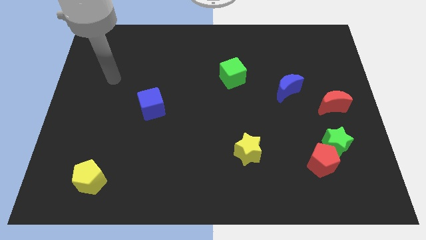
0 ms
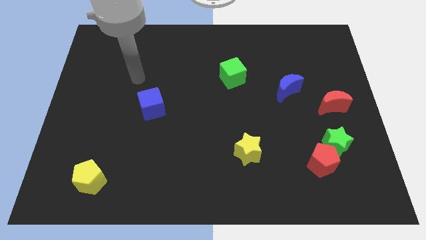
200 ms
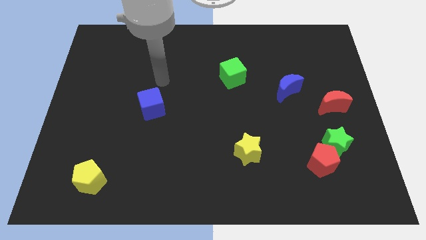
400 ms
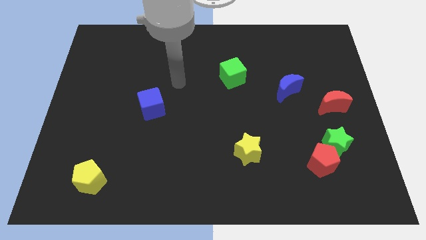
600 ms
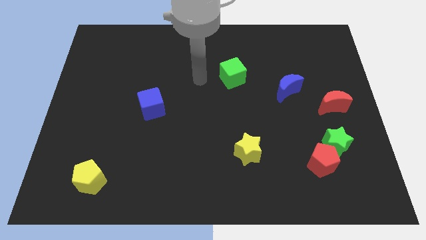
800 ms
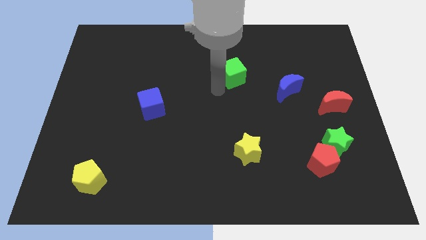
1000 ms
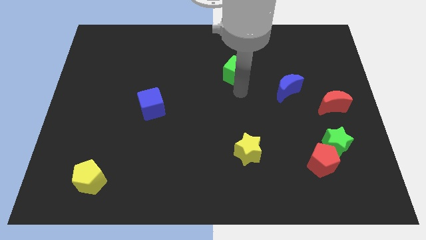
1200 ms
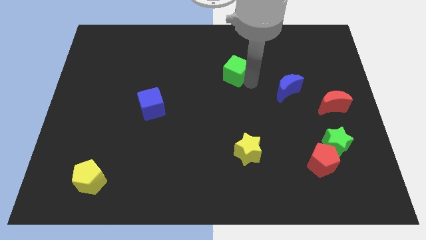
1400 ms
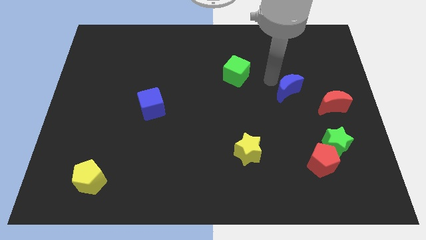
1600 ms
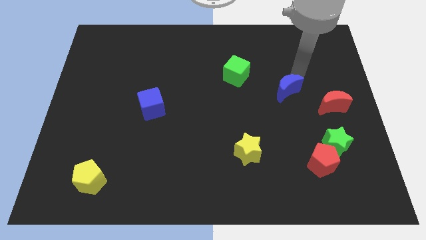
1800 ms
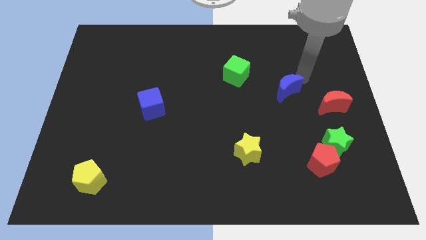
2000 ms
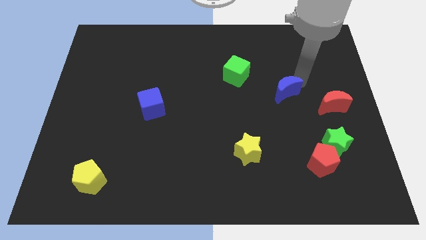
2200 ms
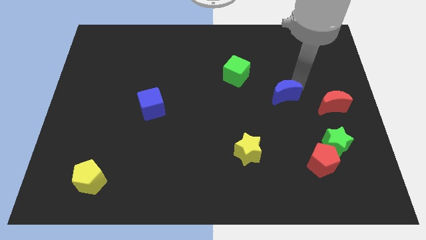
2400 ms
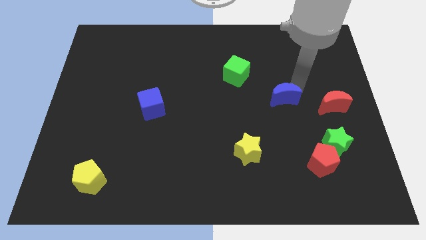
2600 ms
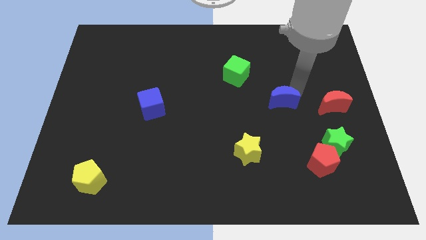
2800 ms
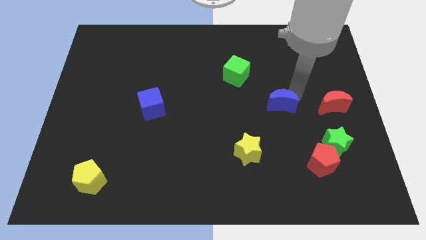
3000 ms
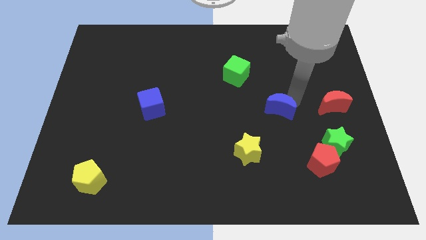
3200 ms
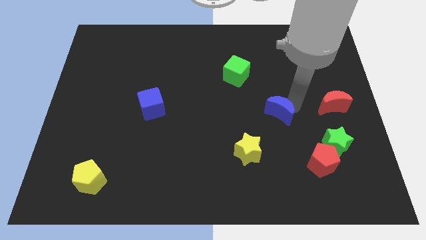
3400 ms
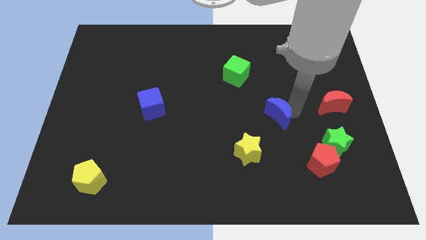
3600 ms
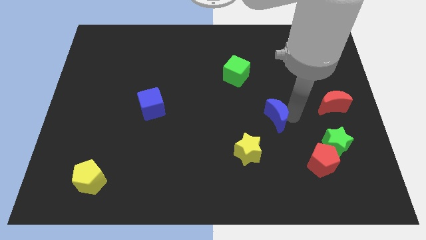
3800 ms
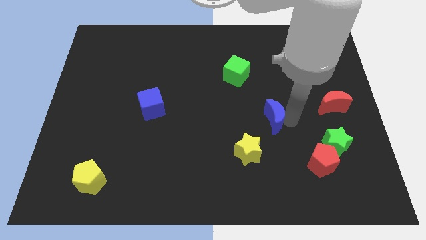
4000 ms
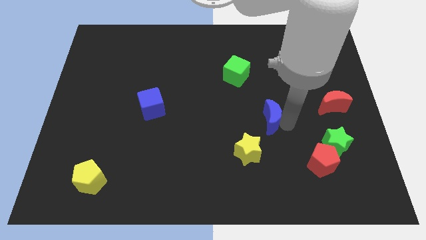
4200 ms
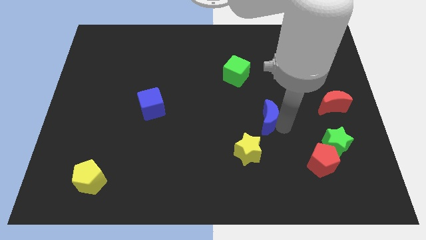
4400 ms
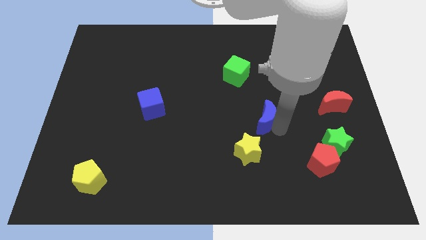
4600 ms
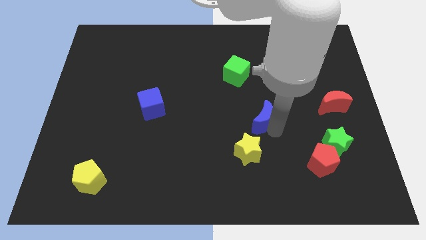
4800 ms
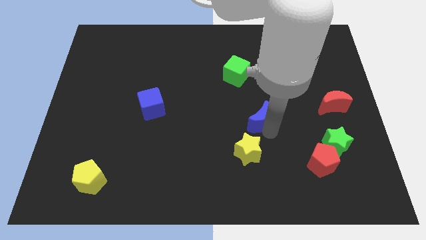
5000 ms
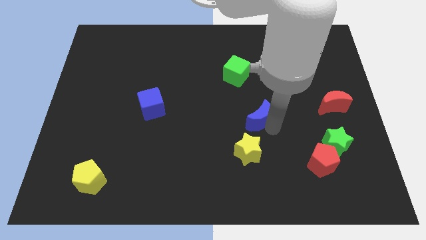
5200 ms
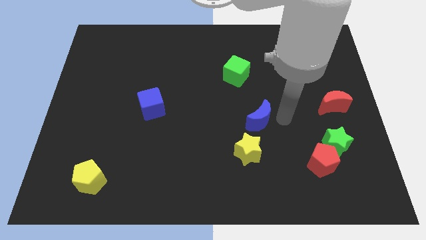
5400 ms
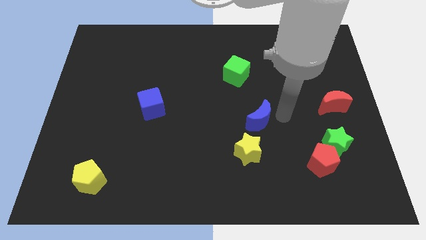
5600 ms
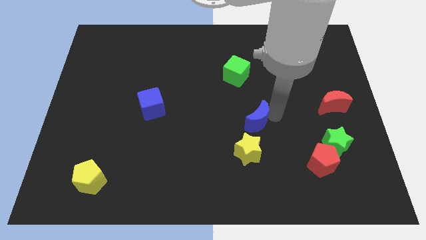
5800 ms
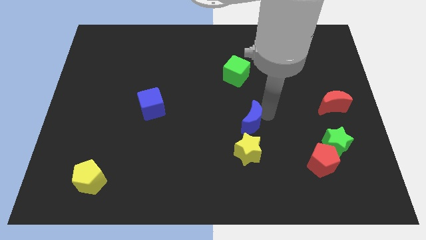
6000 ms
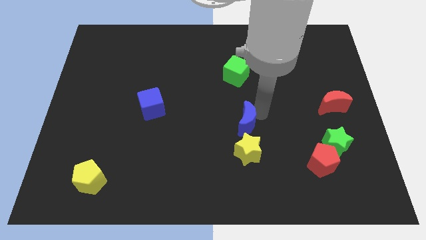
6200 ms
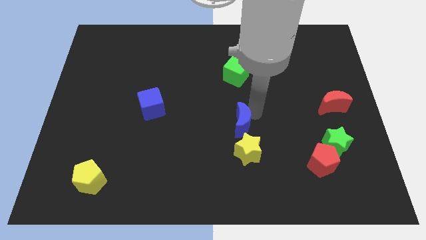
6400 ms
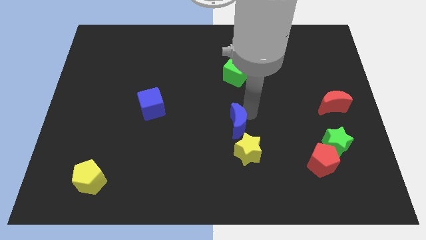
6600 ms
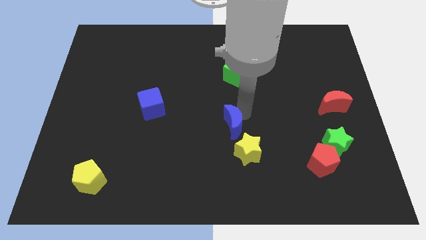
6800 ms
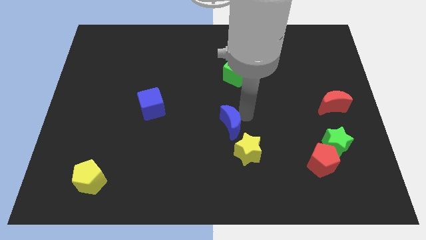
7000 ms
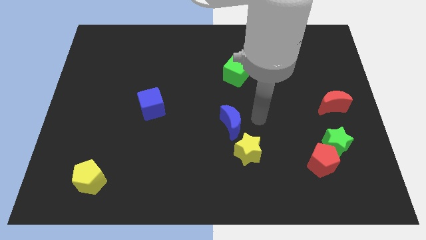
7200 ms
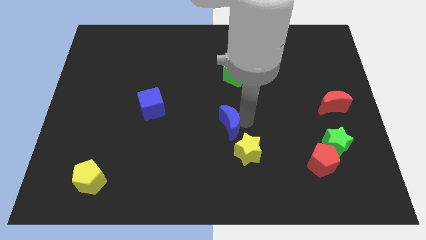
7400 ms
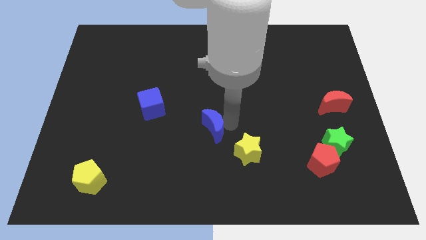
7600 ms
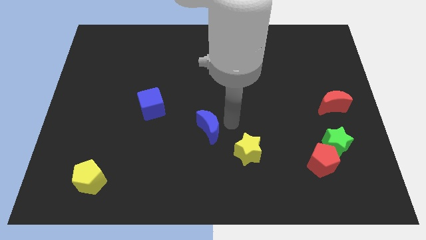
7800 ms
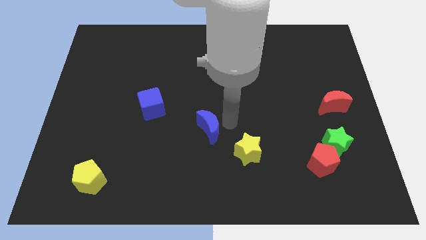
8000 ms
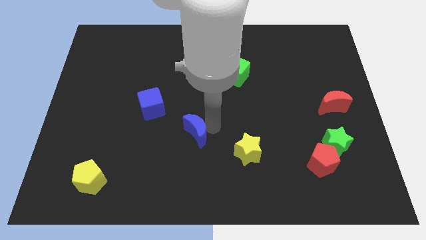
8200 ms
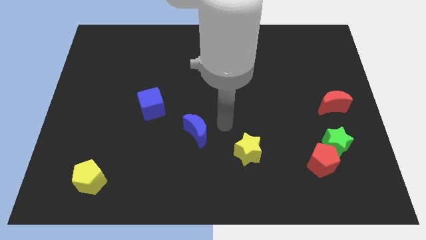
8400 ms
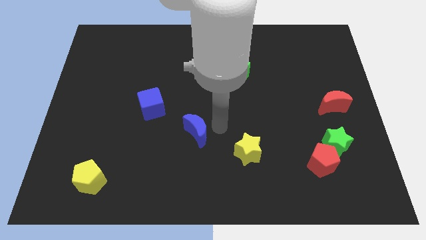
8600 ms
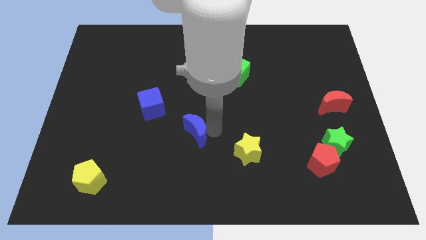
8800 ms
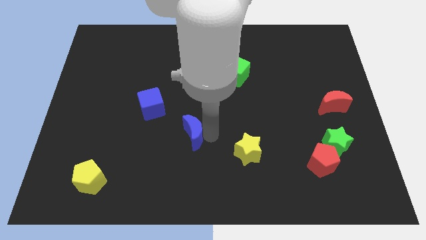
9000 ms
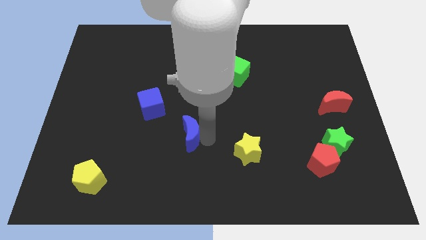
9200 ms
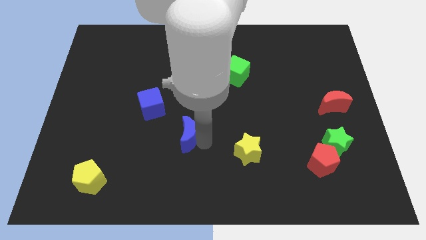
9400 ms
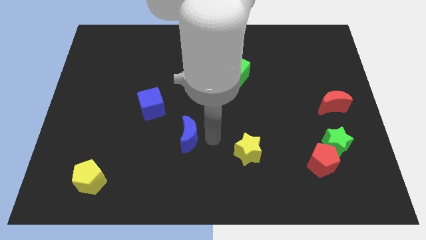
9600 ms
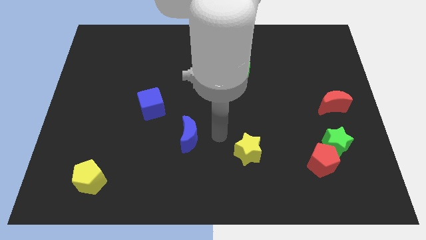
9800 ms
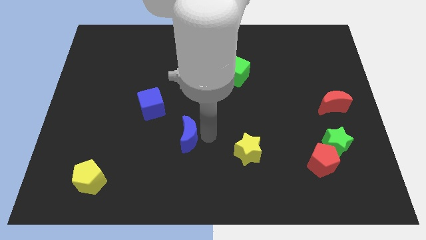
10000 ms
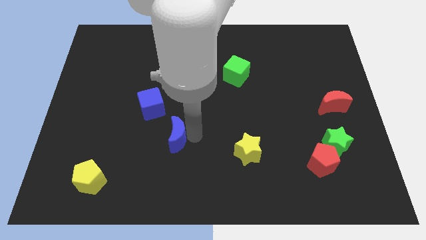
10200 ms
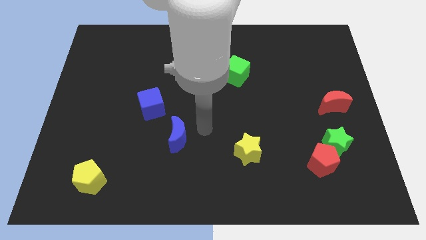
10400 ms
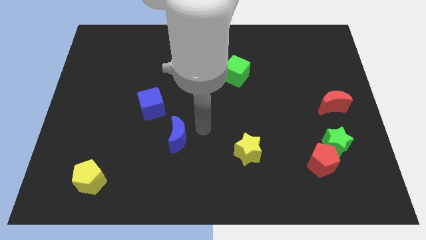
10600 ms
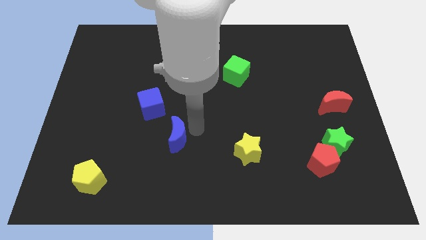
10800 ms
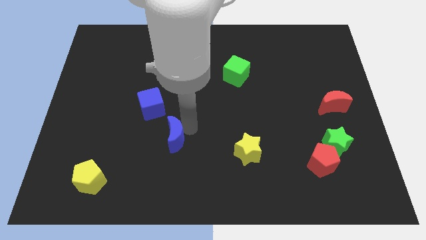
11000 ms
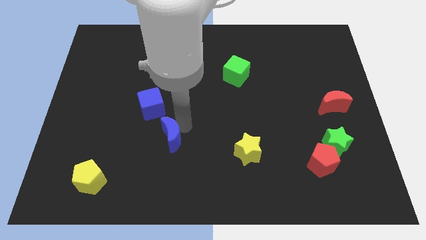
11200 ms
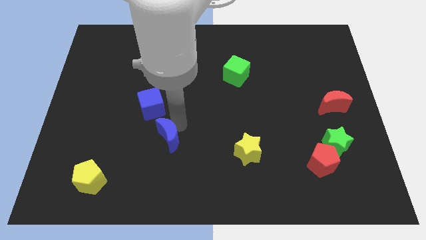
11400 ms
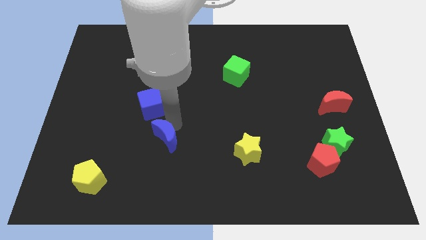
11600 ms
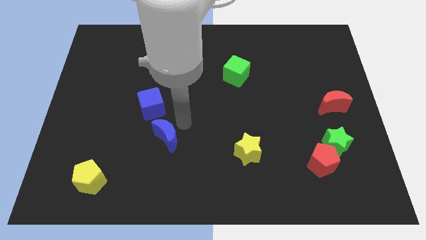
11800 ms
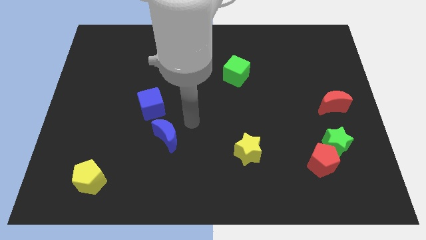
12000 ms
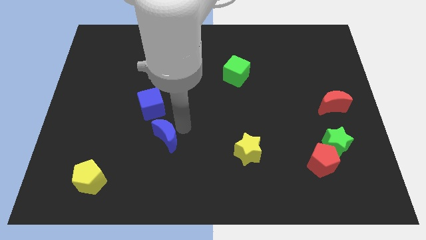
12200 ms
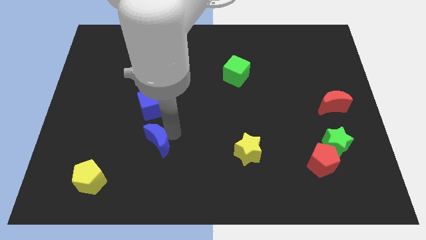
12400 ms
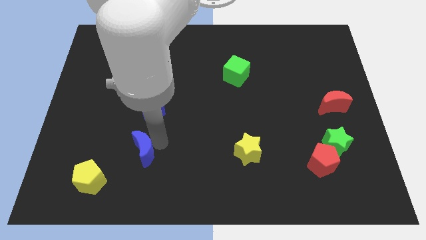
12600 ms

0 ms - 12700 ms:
push the blue moon to the top right side of the yellow pentagon
